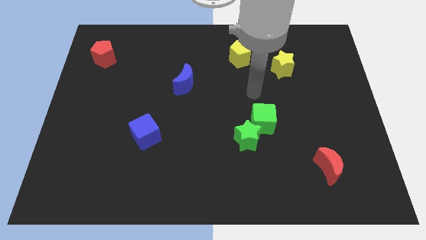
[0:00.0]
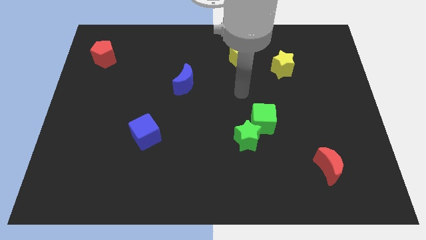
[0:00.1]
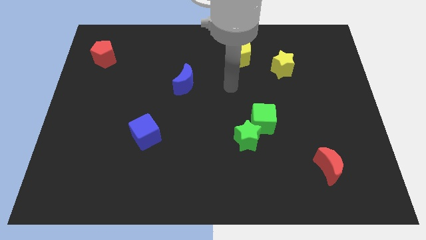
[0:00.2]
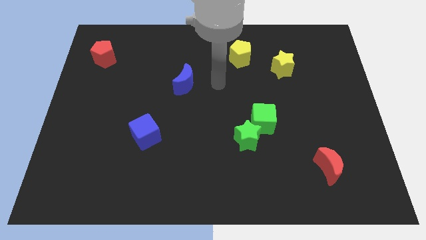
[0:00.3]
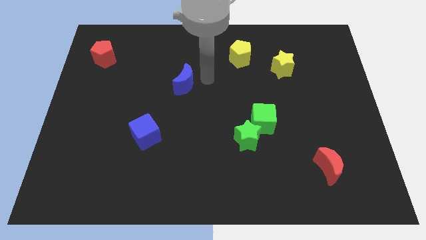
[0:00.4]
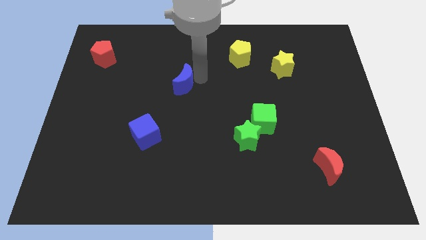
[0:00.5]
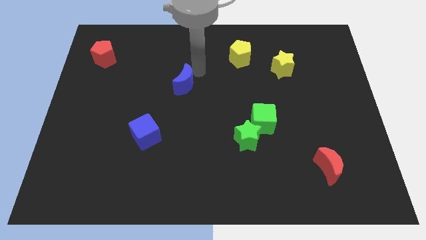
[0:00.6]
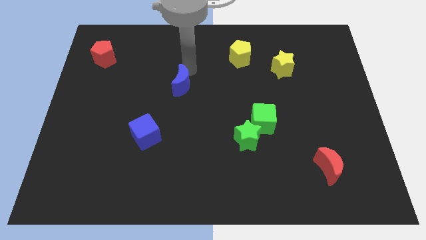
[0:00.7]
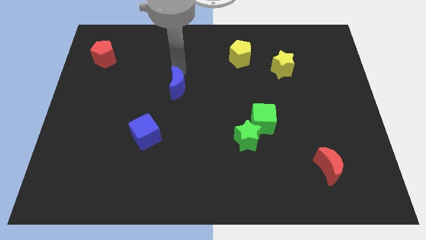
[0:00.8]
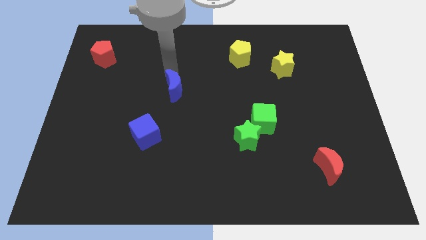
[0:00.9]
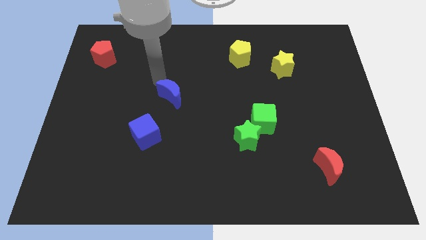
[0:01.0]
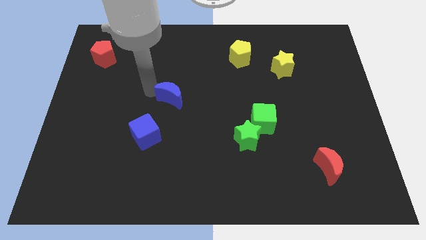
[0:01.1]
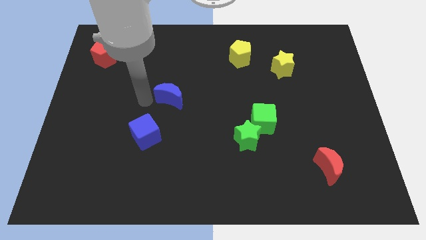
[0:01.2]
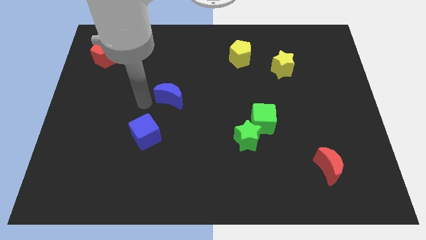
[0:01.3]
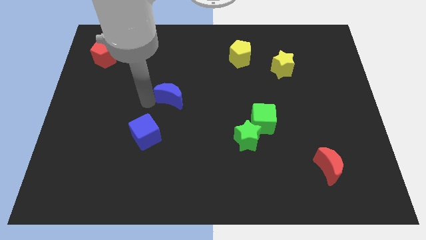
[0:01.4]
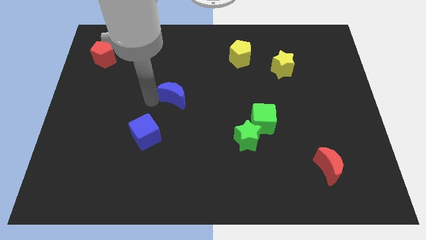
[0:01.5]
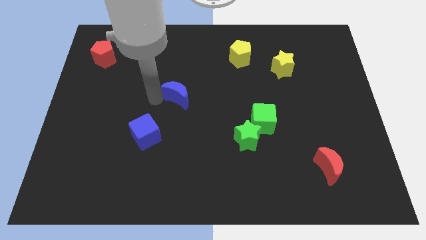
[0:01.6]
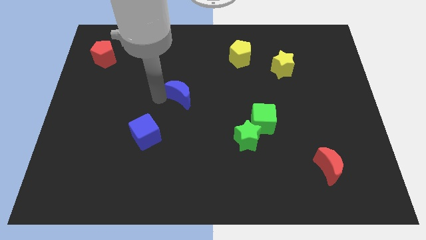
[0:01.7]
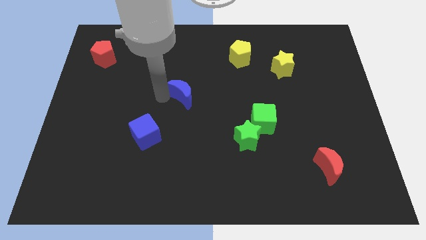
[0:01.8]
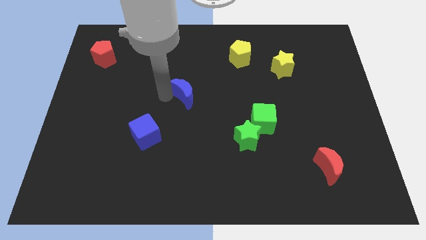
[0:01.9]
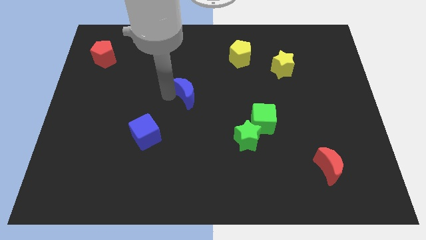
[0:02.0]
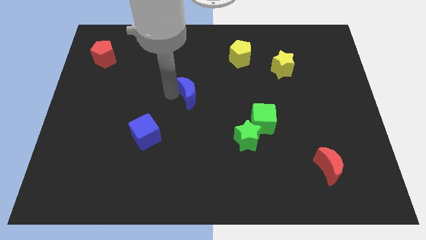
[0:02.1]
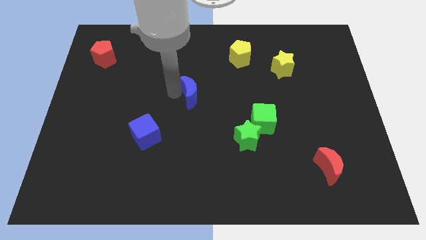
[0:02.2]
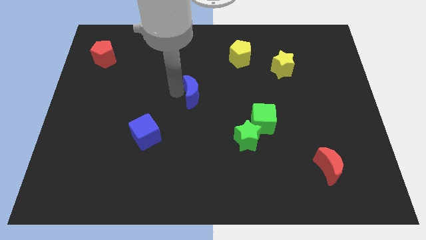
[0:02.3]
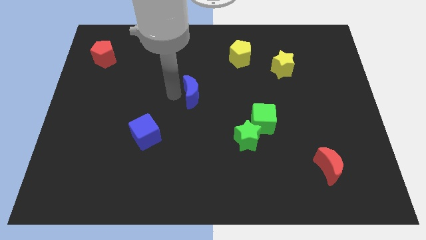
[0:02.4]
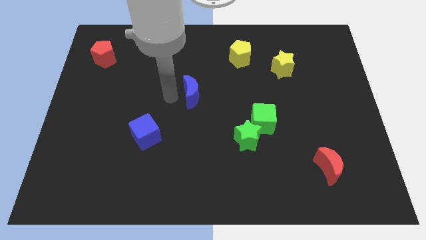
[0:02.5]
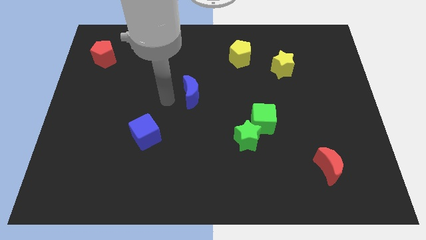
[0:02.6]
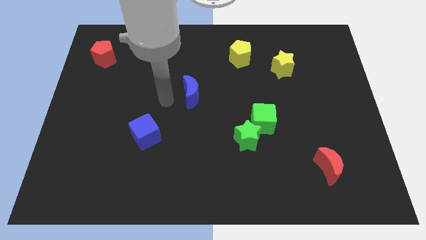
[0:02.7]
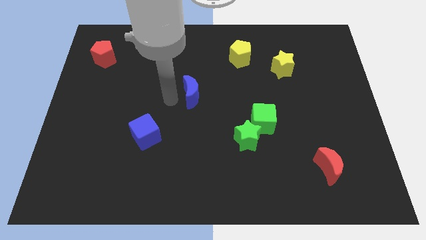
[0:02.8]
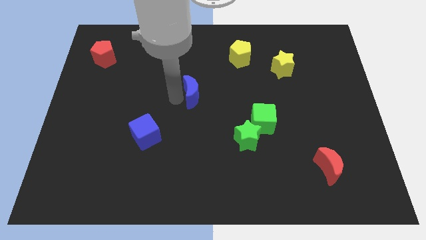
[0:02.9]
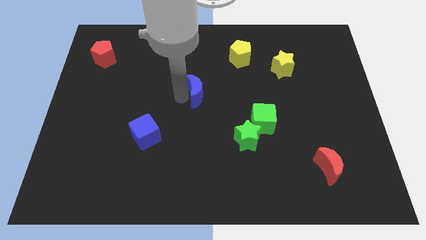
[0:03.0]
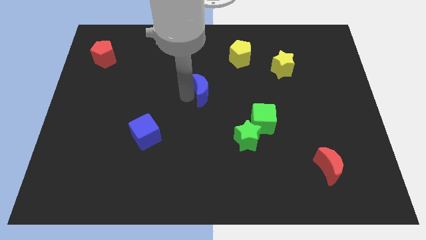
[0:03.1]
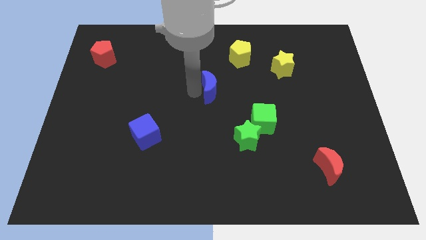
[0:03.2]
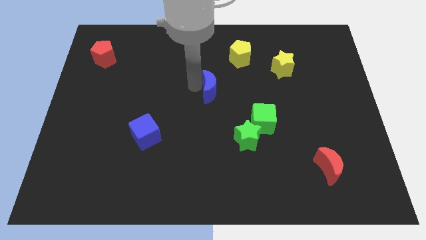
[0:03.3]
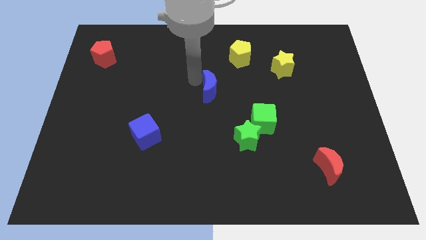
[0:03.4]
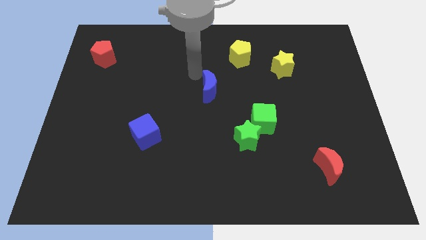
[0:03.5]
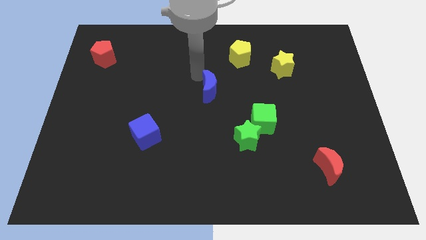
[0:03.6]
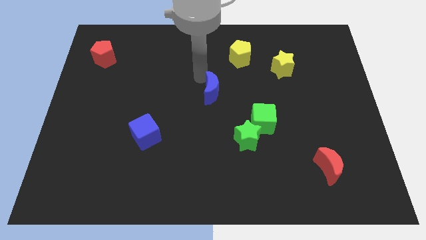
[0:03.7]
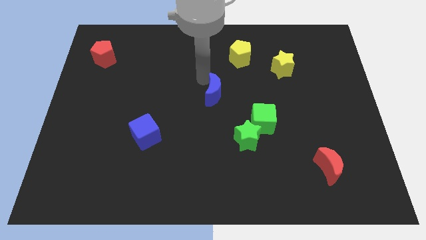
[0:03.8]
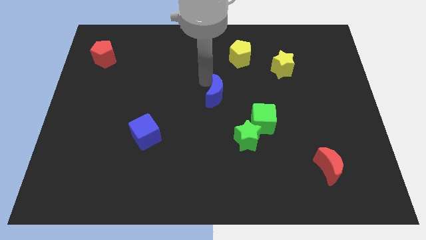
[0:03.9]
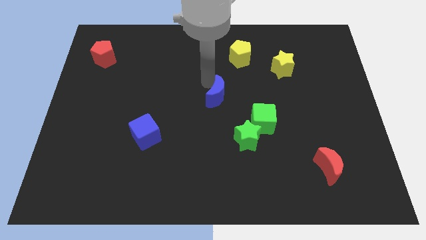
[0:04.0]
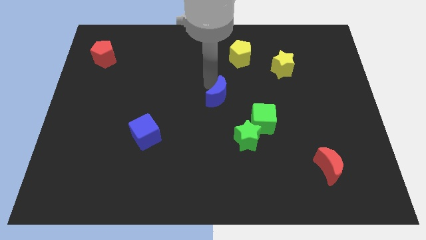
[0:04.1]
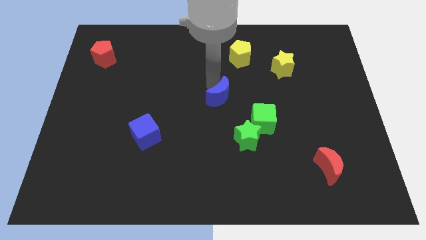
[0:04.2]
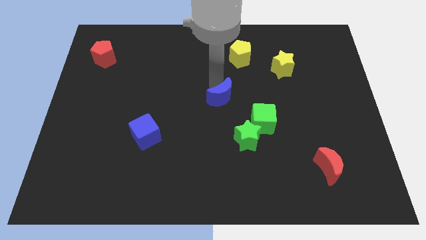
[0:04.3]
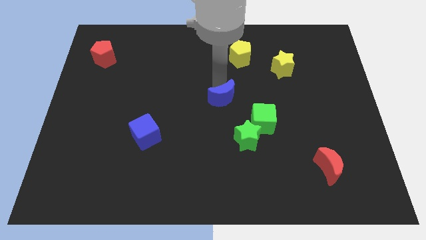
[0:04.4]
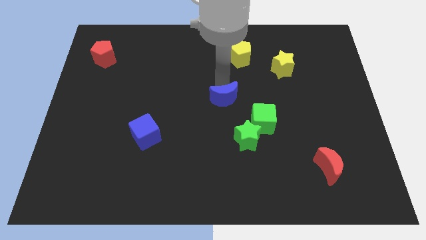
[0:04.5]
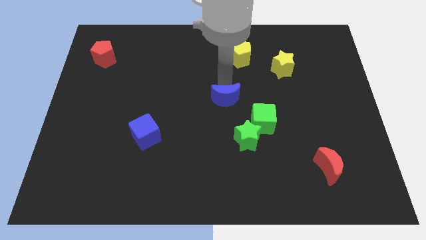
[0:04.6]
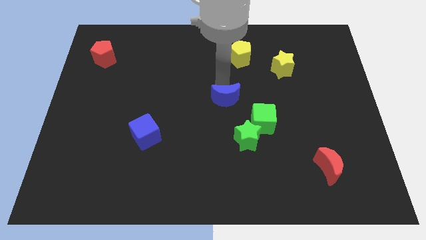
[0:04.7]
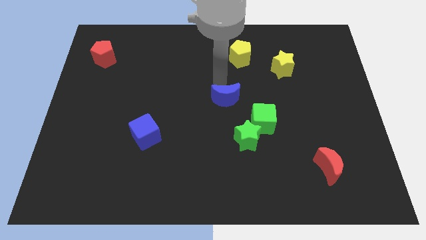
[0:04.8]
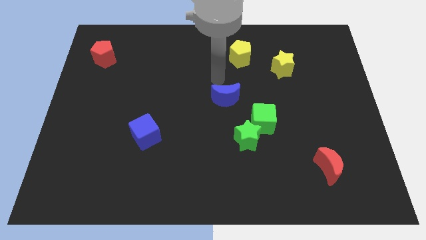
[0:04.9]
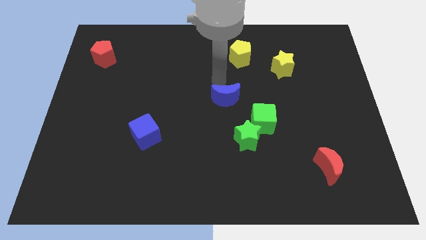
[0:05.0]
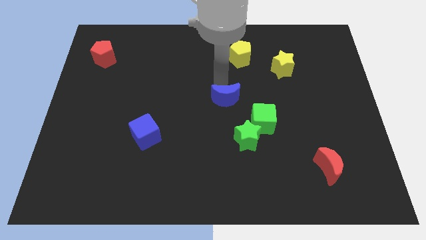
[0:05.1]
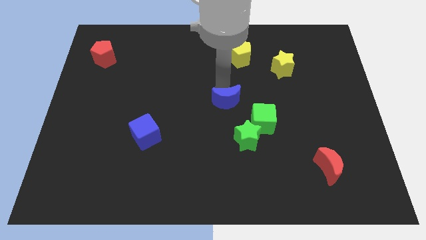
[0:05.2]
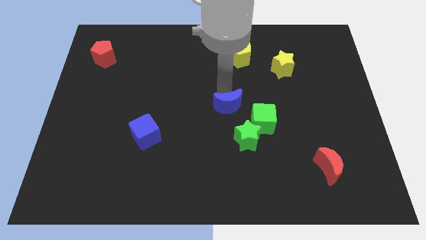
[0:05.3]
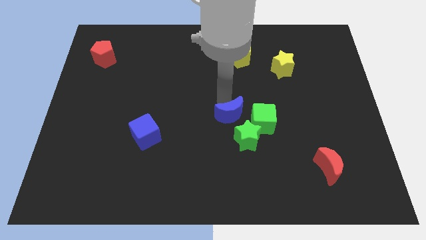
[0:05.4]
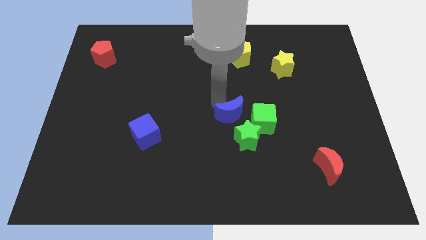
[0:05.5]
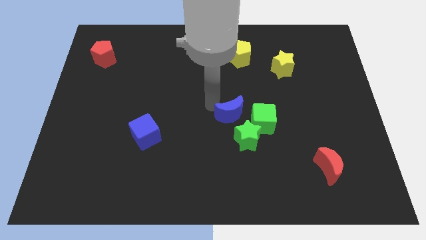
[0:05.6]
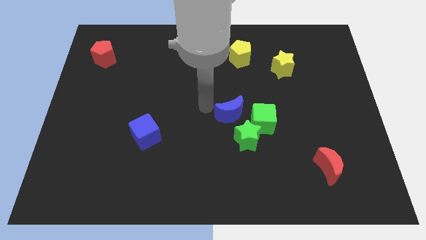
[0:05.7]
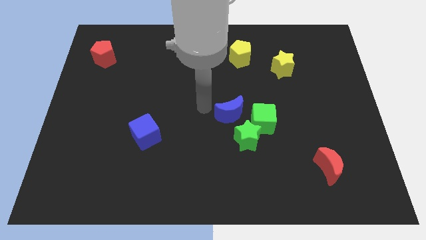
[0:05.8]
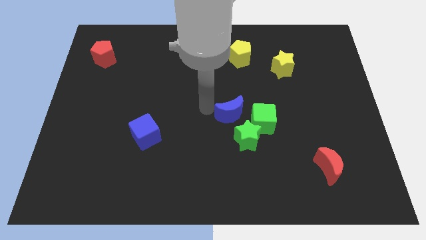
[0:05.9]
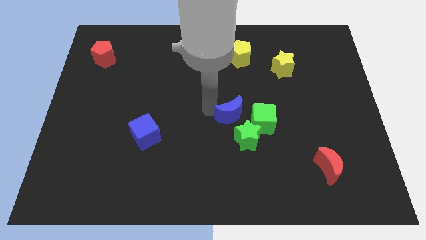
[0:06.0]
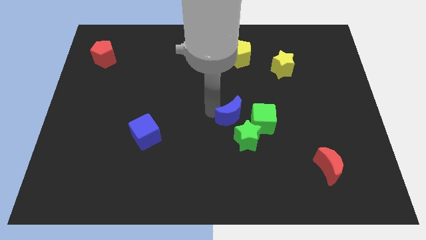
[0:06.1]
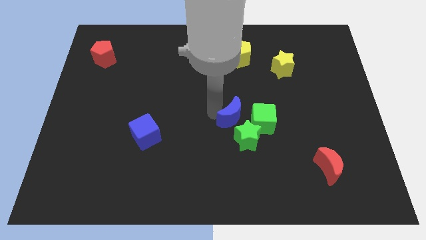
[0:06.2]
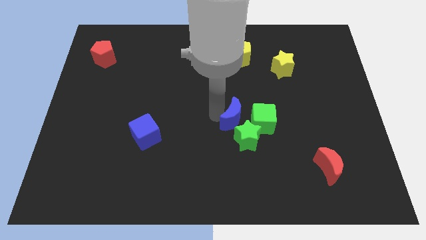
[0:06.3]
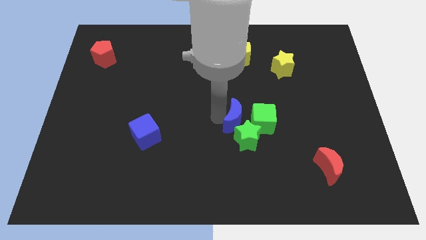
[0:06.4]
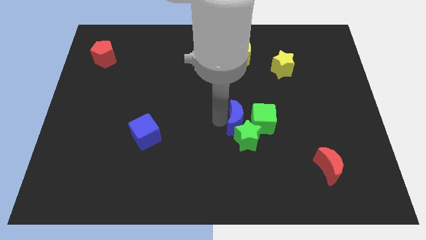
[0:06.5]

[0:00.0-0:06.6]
slide the blue moon close to the green cube
